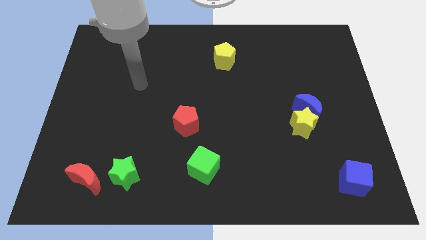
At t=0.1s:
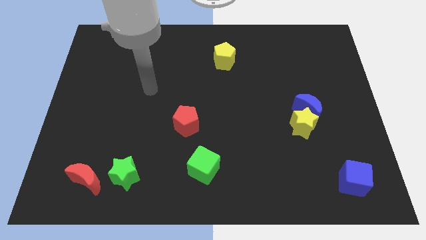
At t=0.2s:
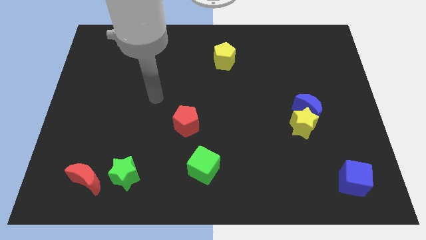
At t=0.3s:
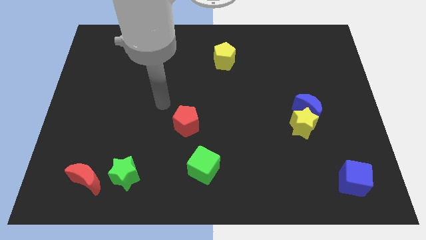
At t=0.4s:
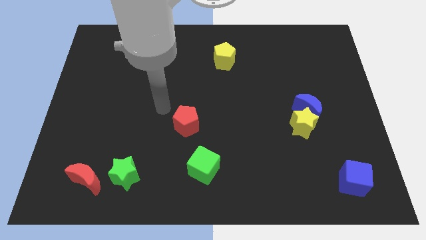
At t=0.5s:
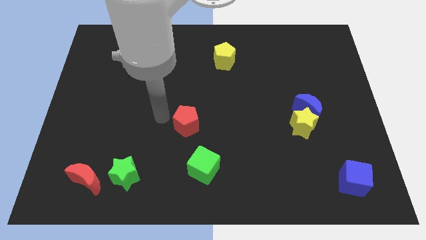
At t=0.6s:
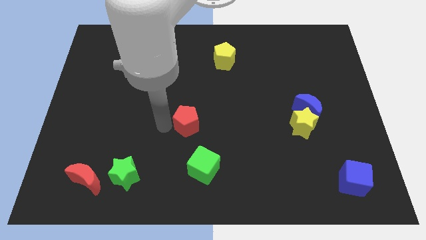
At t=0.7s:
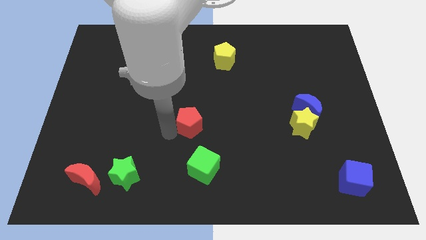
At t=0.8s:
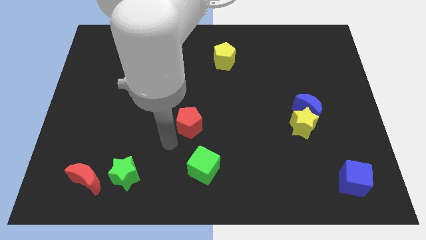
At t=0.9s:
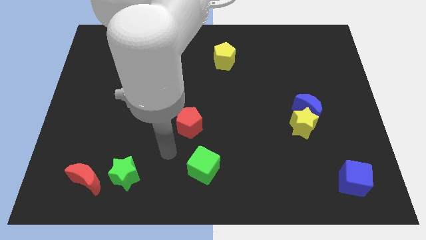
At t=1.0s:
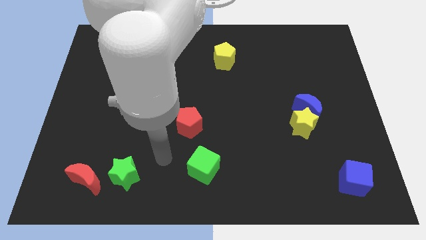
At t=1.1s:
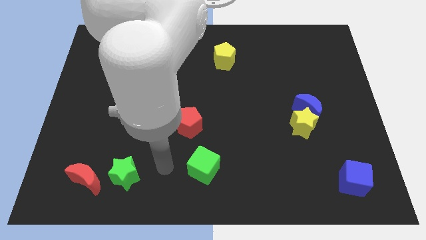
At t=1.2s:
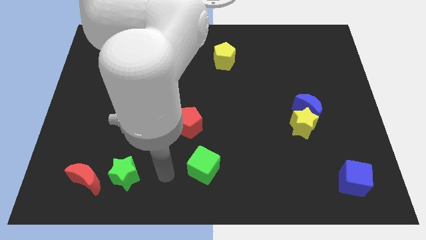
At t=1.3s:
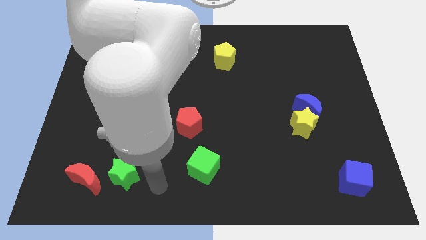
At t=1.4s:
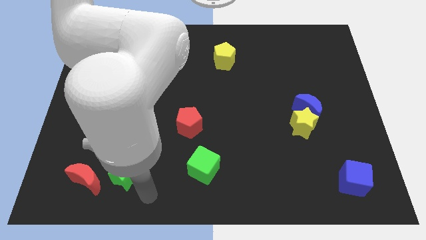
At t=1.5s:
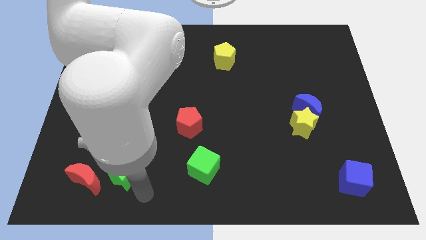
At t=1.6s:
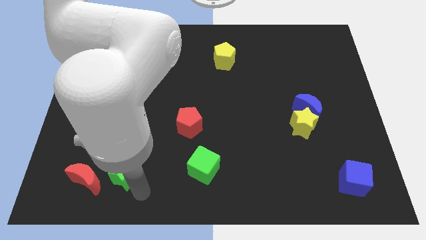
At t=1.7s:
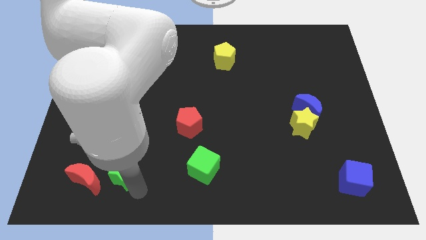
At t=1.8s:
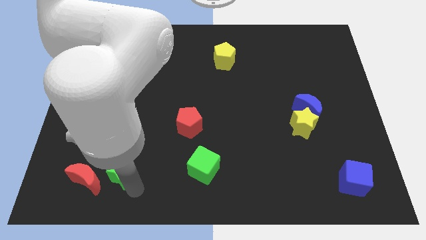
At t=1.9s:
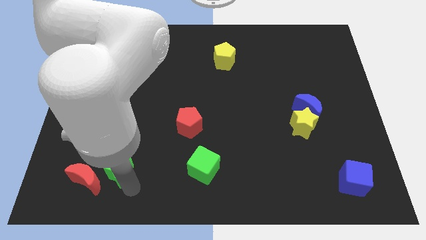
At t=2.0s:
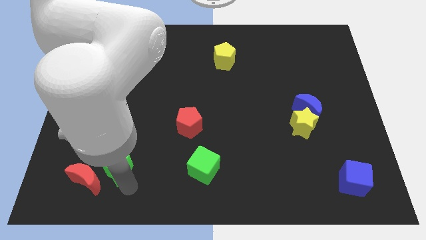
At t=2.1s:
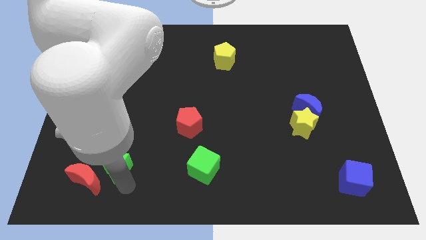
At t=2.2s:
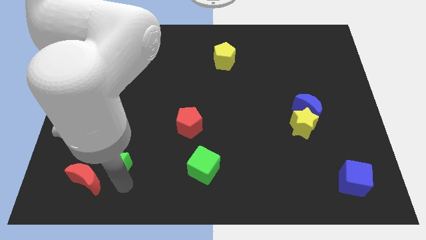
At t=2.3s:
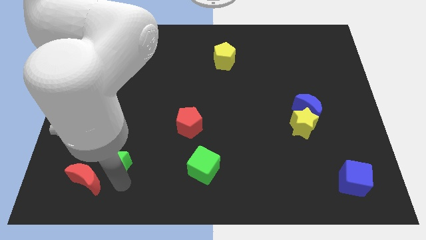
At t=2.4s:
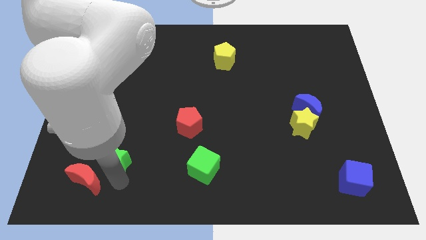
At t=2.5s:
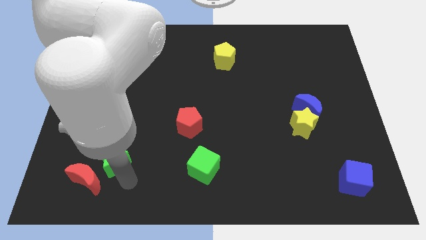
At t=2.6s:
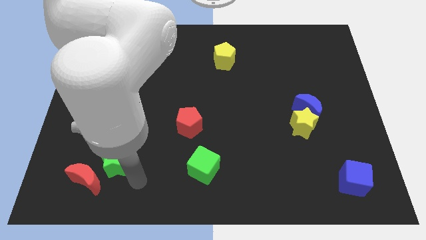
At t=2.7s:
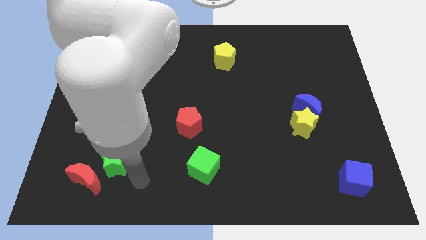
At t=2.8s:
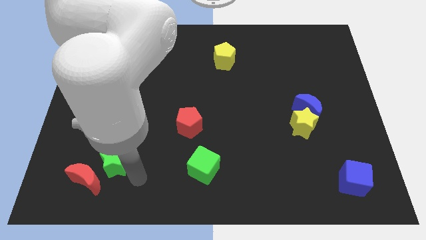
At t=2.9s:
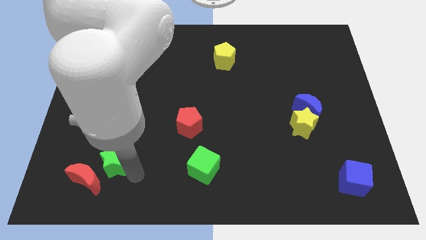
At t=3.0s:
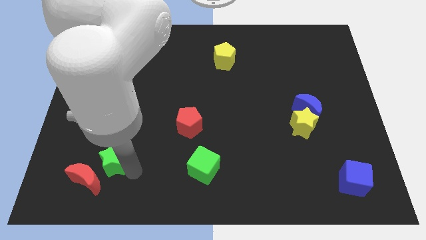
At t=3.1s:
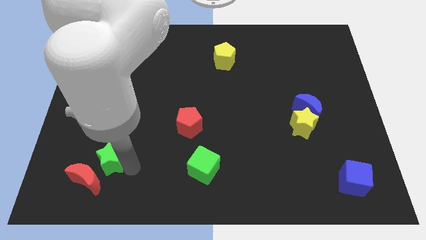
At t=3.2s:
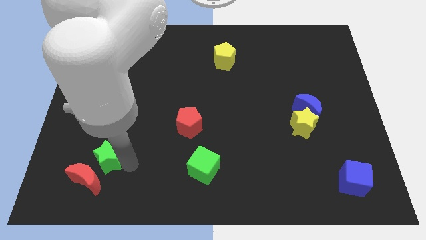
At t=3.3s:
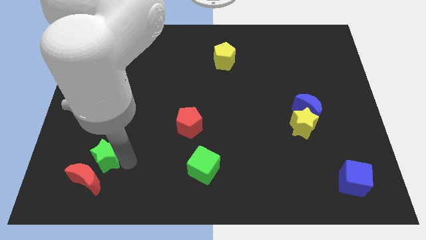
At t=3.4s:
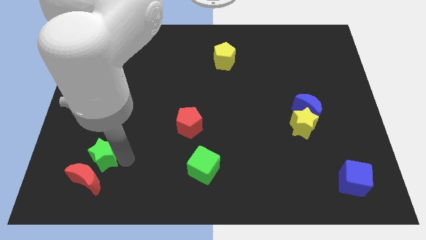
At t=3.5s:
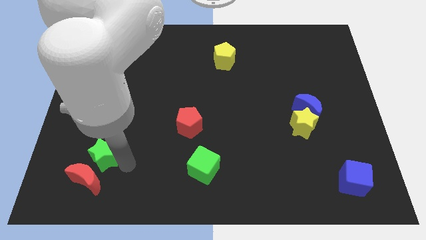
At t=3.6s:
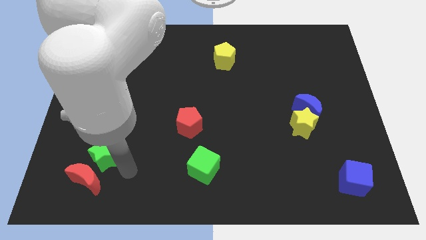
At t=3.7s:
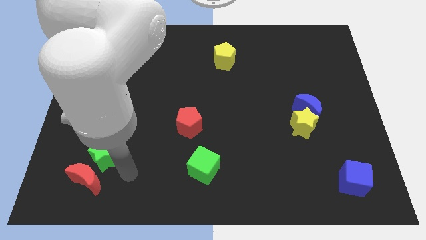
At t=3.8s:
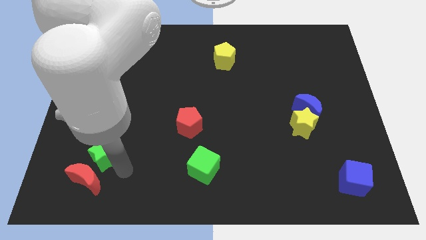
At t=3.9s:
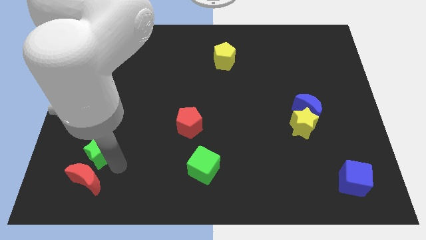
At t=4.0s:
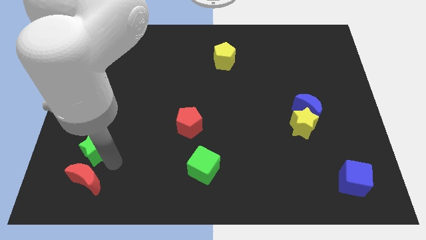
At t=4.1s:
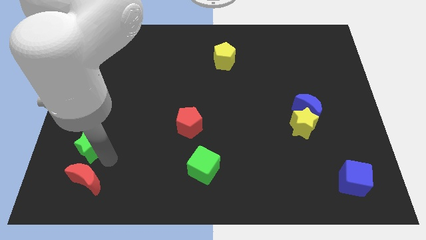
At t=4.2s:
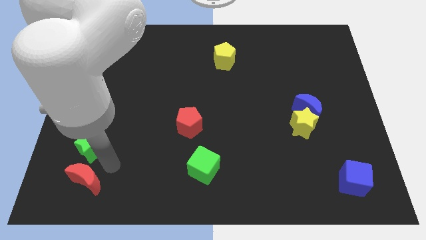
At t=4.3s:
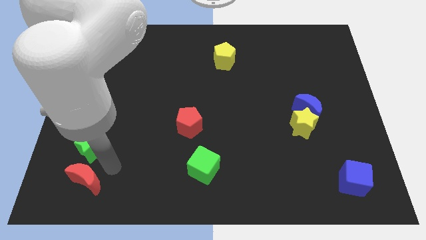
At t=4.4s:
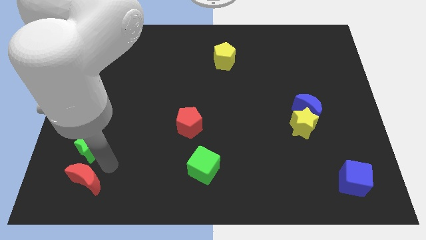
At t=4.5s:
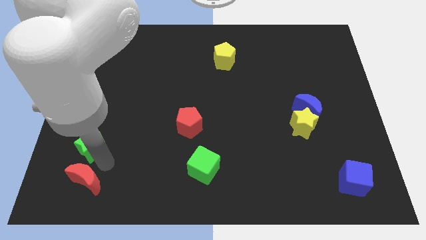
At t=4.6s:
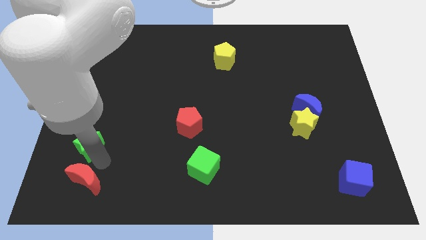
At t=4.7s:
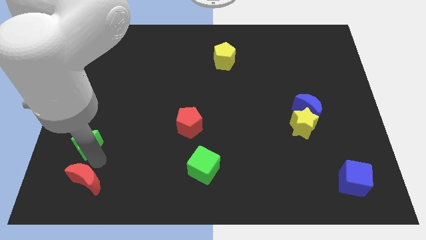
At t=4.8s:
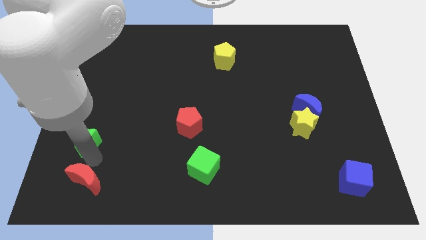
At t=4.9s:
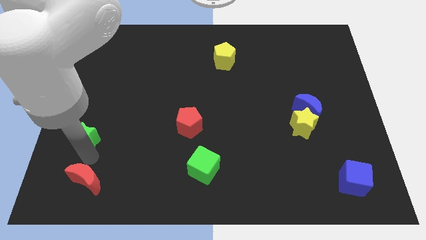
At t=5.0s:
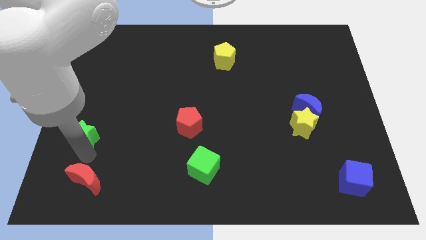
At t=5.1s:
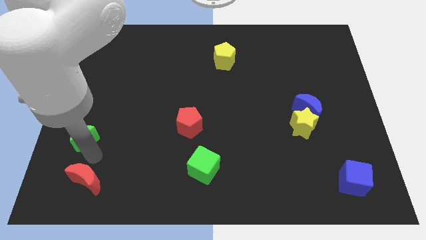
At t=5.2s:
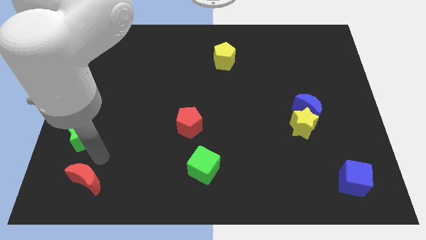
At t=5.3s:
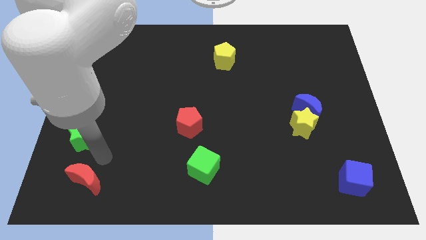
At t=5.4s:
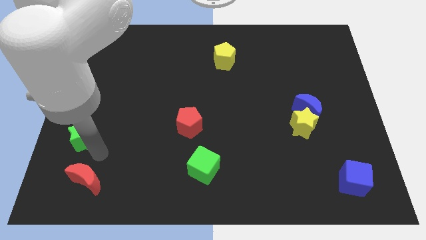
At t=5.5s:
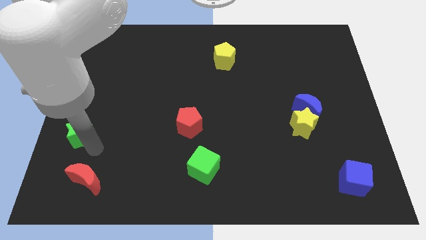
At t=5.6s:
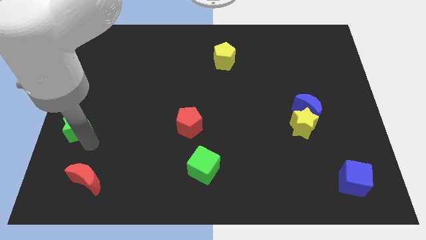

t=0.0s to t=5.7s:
put the green star to the left side

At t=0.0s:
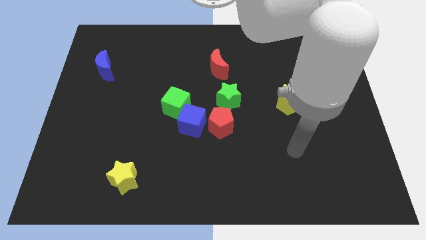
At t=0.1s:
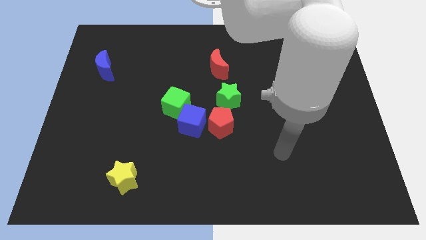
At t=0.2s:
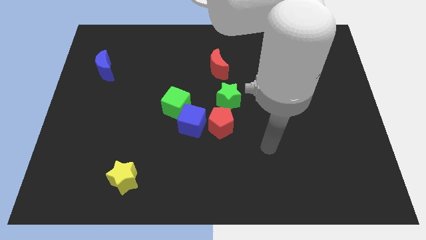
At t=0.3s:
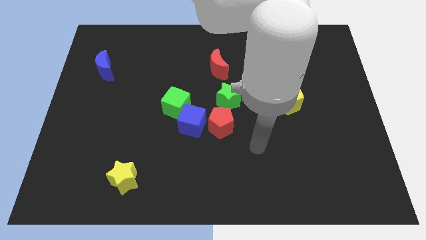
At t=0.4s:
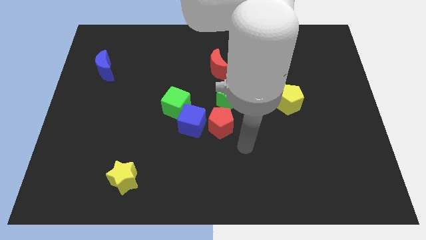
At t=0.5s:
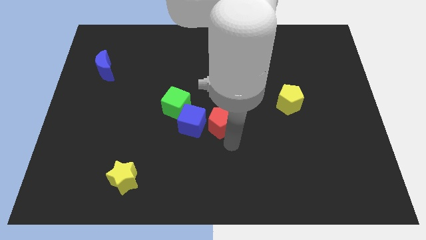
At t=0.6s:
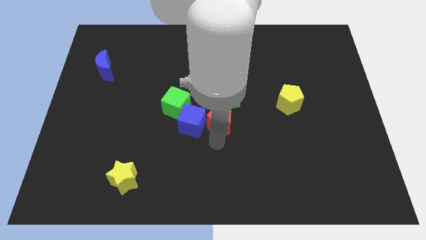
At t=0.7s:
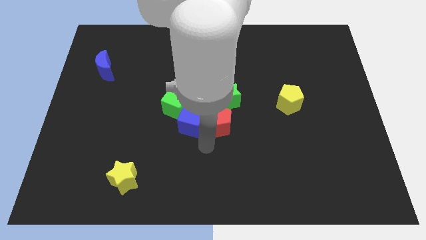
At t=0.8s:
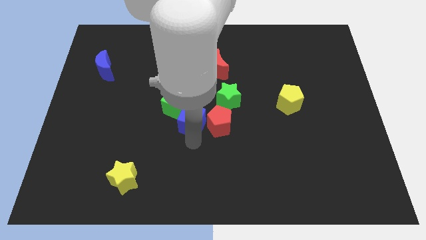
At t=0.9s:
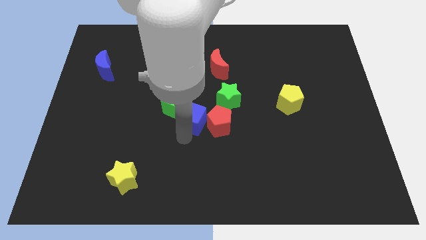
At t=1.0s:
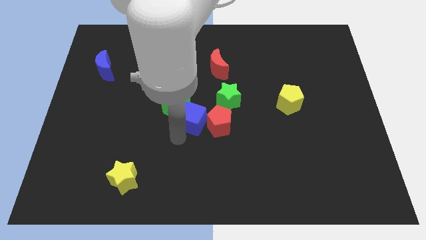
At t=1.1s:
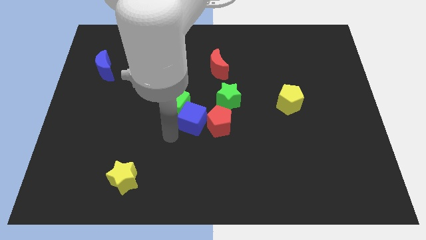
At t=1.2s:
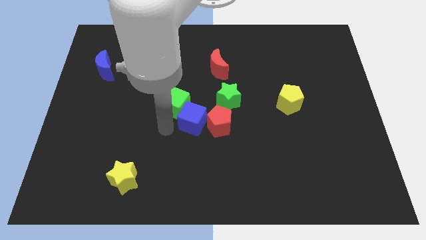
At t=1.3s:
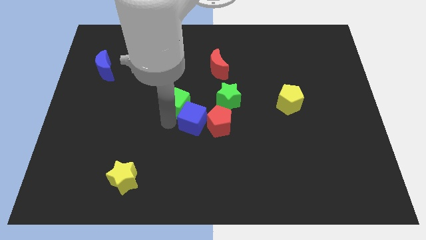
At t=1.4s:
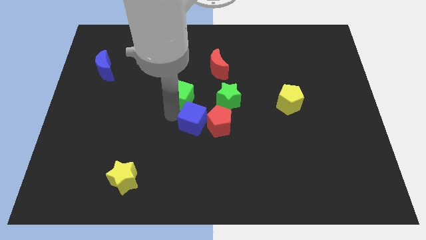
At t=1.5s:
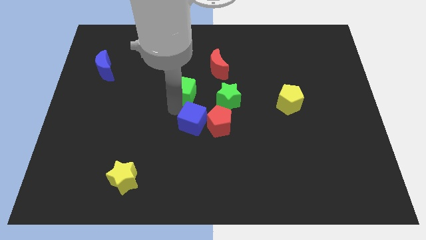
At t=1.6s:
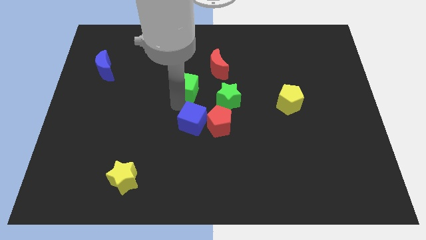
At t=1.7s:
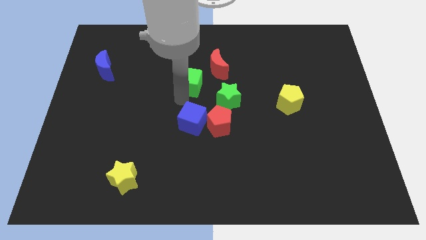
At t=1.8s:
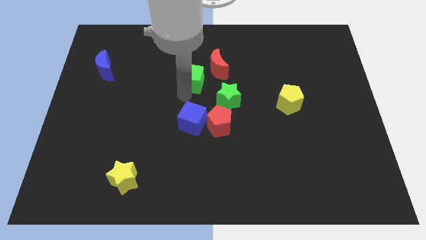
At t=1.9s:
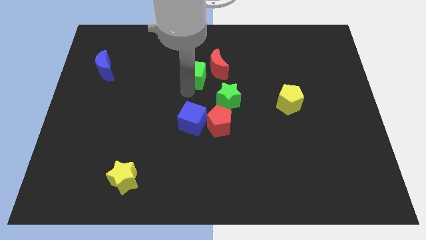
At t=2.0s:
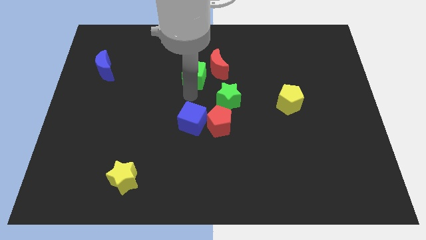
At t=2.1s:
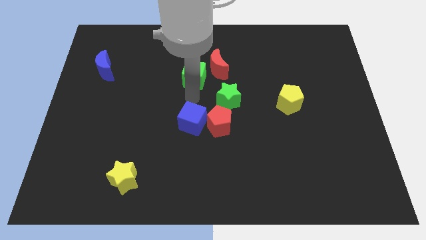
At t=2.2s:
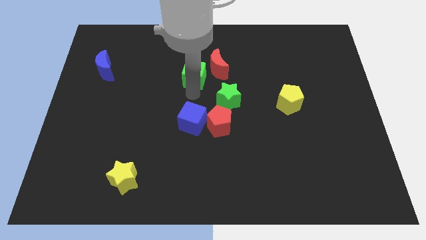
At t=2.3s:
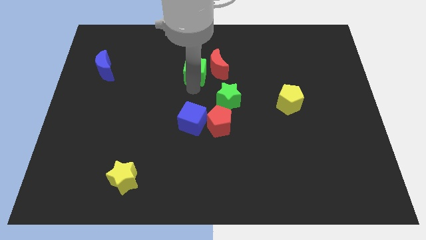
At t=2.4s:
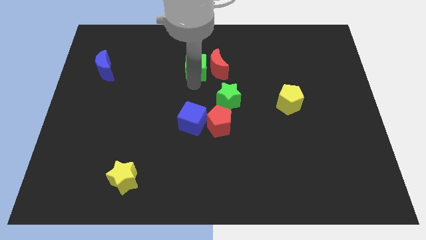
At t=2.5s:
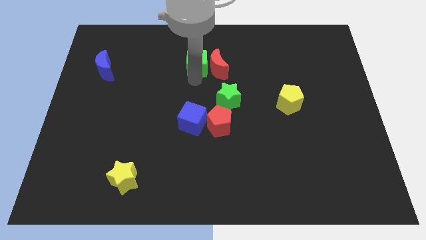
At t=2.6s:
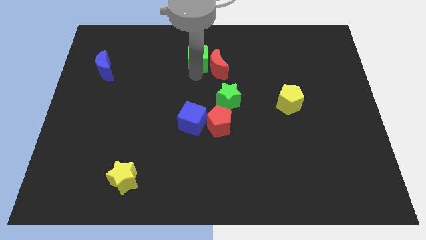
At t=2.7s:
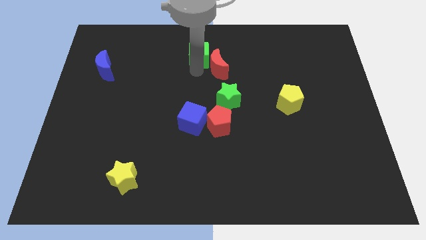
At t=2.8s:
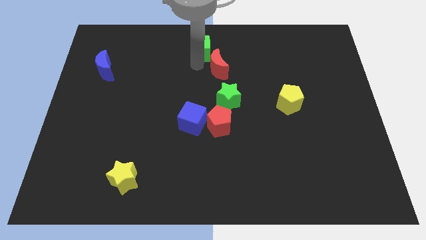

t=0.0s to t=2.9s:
put the green cube to the towards your base
